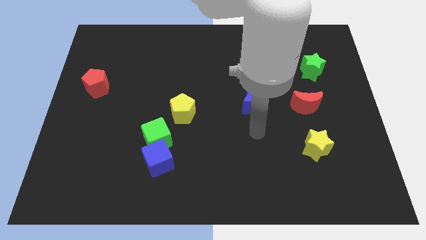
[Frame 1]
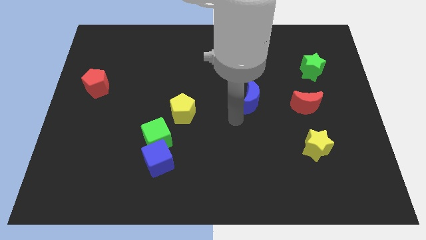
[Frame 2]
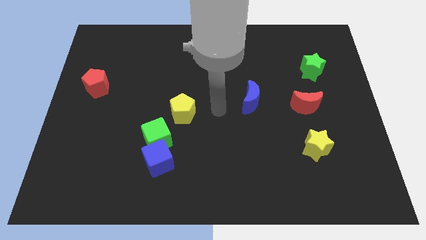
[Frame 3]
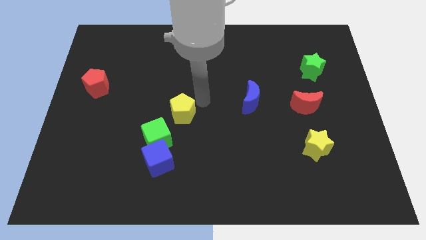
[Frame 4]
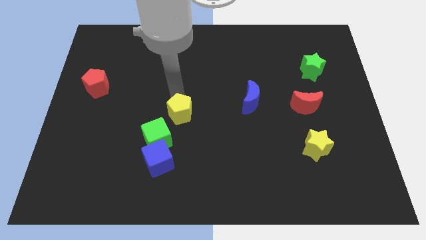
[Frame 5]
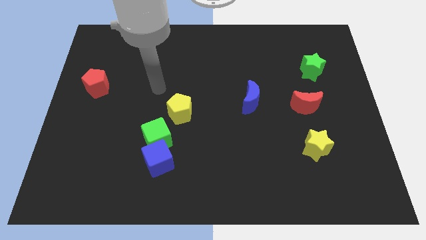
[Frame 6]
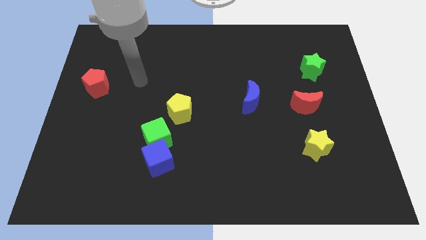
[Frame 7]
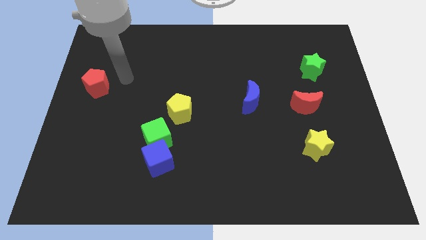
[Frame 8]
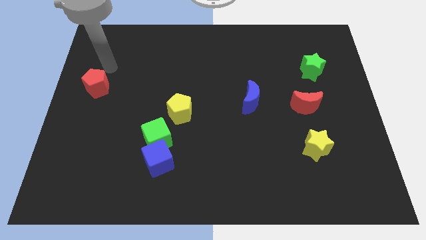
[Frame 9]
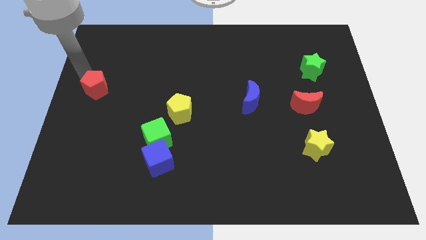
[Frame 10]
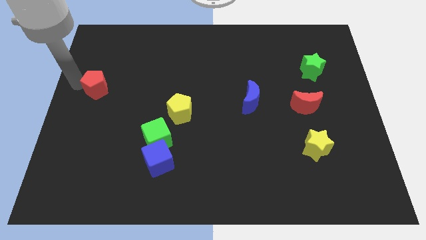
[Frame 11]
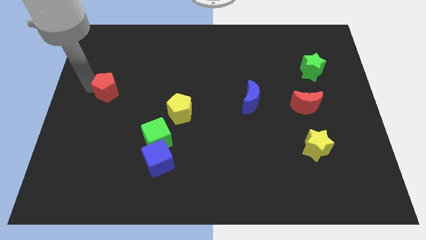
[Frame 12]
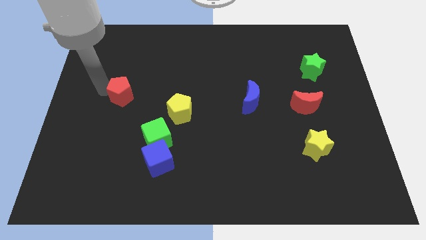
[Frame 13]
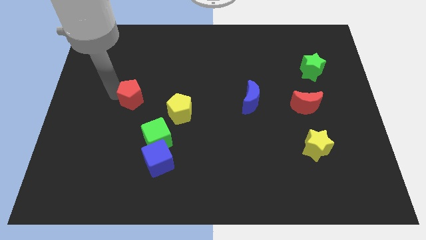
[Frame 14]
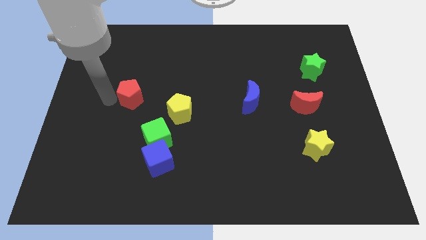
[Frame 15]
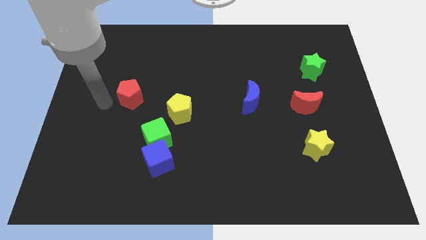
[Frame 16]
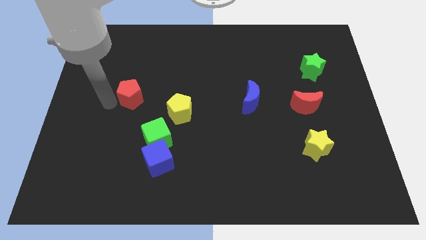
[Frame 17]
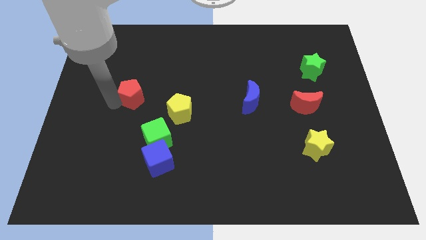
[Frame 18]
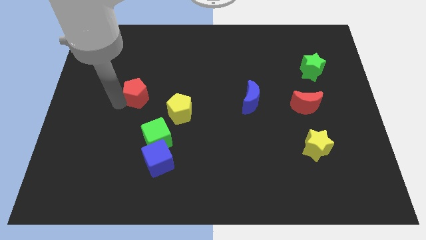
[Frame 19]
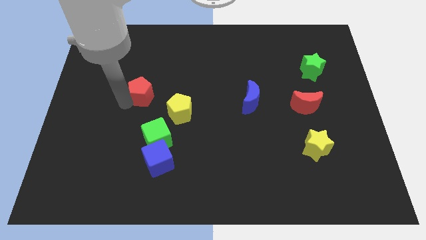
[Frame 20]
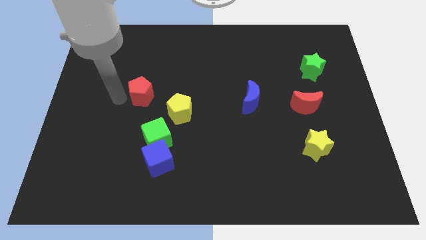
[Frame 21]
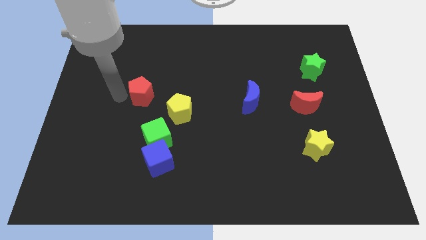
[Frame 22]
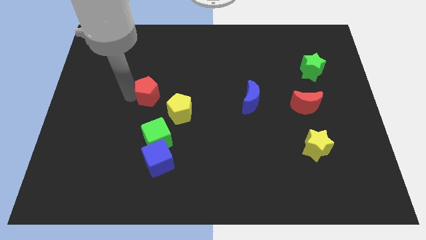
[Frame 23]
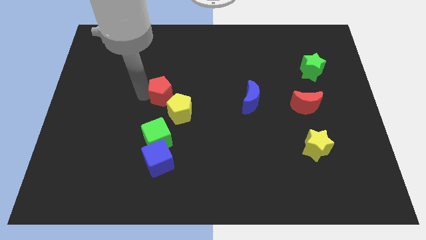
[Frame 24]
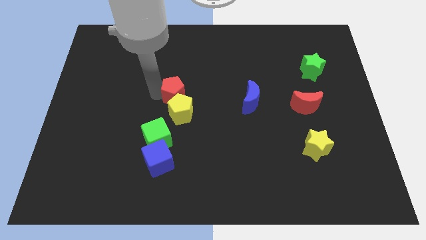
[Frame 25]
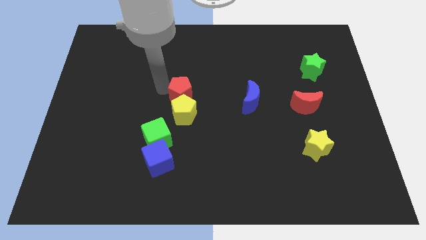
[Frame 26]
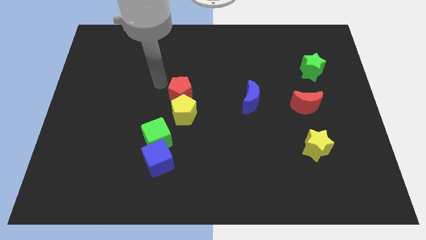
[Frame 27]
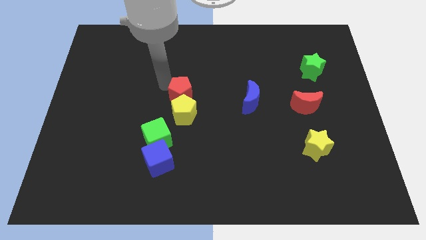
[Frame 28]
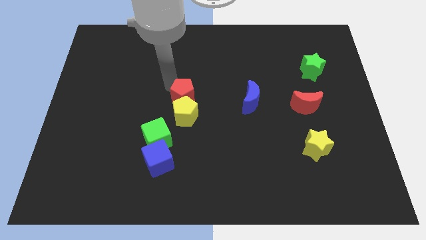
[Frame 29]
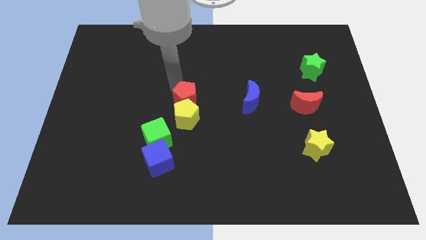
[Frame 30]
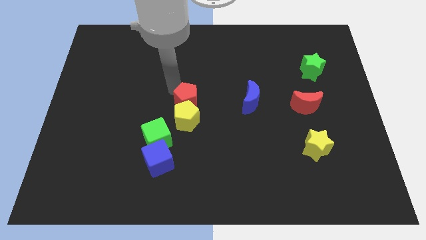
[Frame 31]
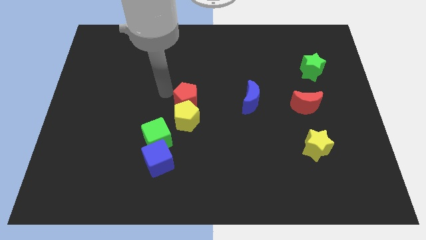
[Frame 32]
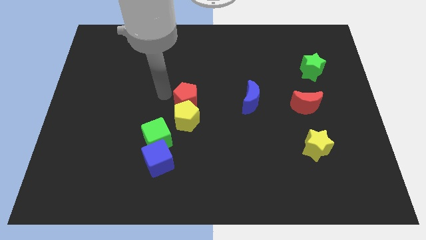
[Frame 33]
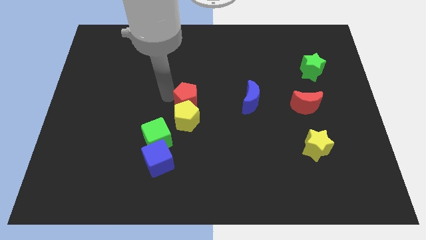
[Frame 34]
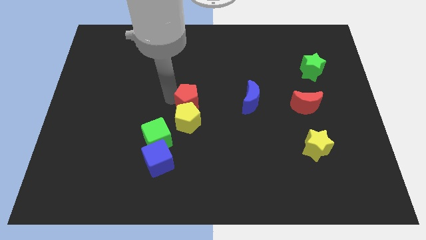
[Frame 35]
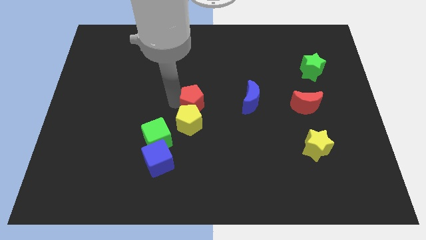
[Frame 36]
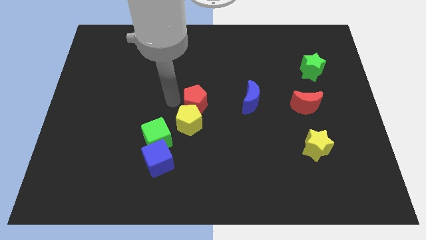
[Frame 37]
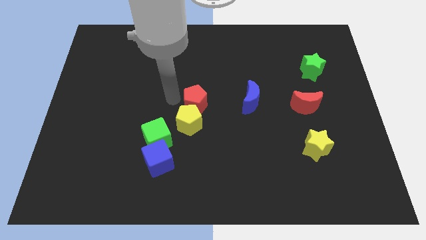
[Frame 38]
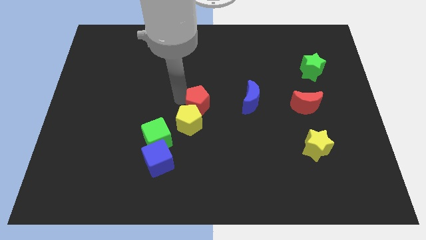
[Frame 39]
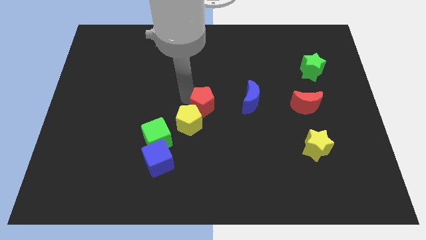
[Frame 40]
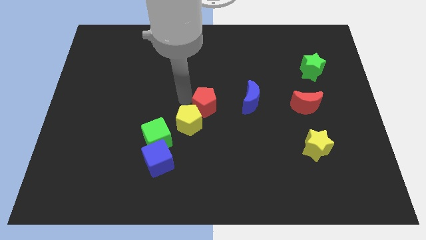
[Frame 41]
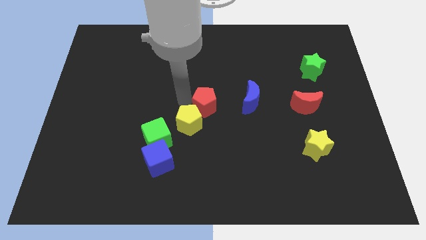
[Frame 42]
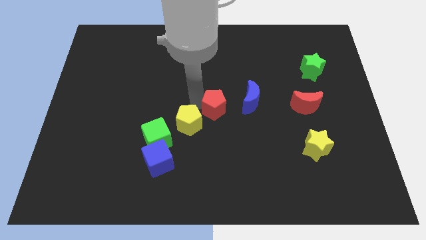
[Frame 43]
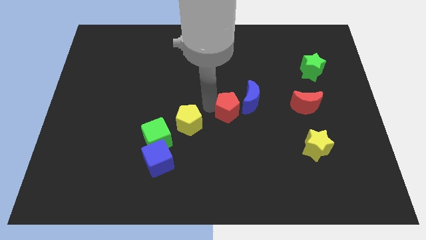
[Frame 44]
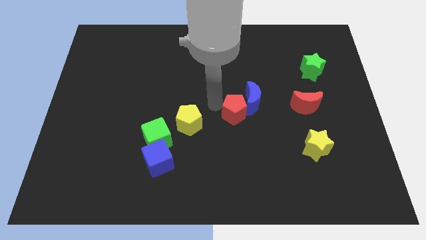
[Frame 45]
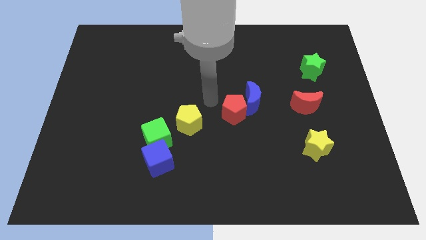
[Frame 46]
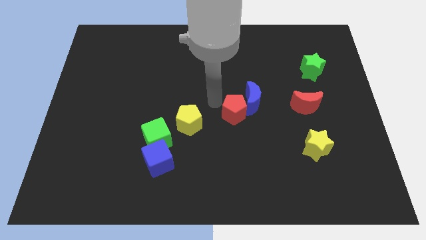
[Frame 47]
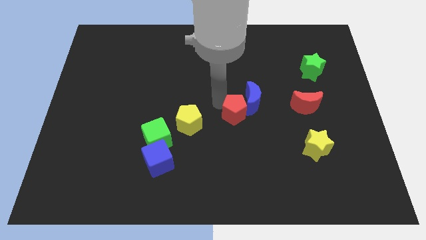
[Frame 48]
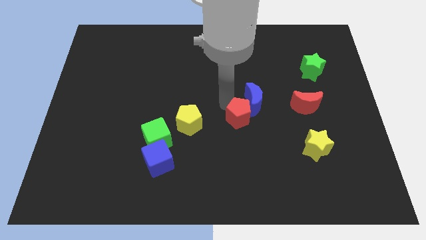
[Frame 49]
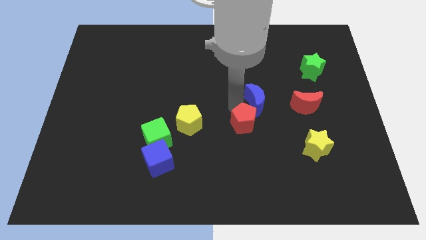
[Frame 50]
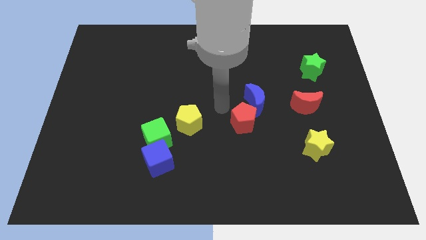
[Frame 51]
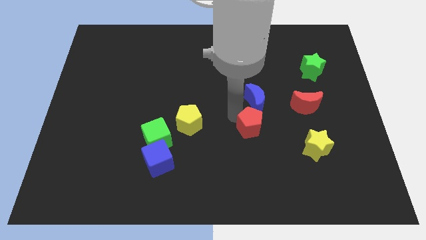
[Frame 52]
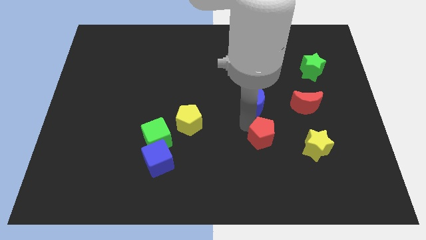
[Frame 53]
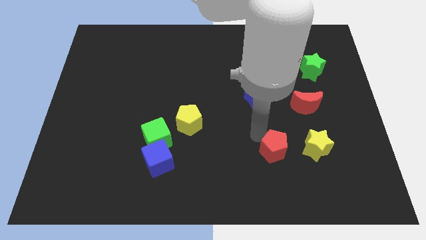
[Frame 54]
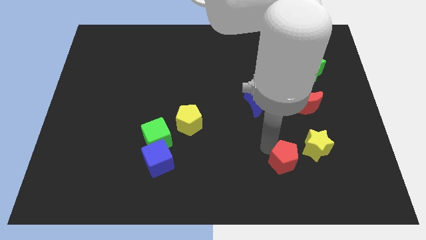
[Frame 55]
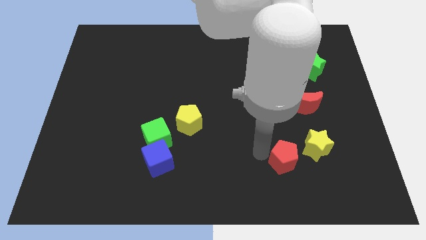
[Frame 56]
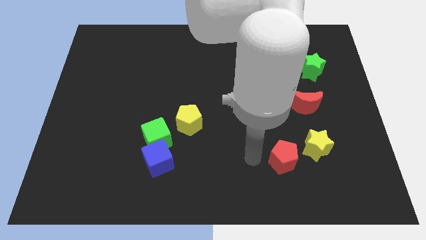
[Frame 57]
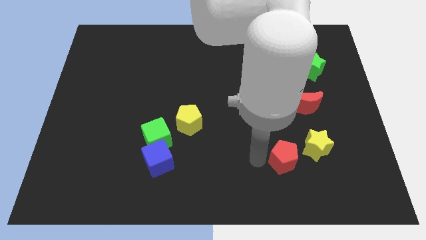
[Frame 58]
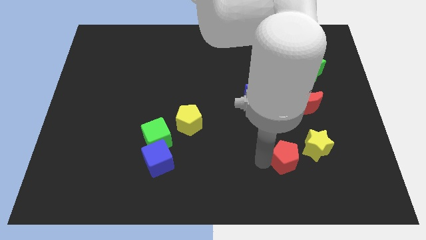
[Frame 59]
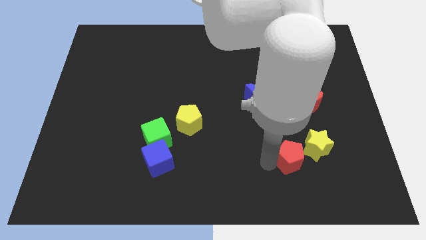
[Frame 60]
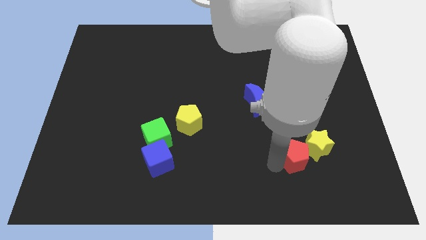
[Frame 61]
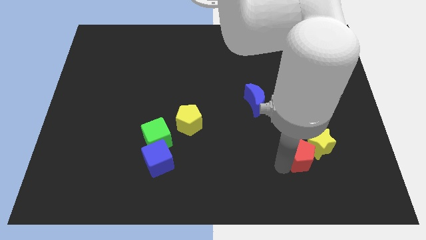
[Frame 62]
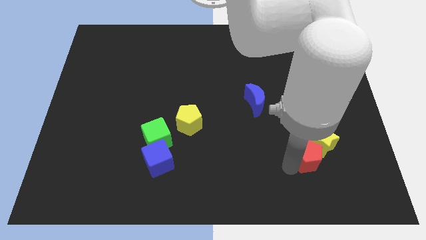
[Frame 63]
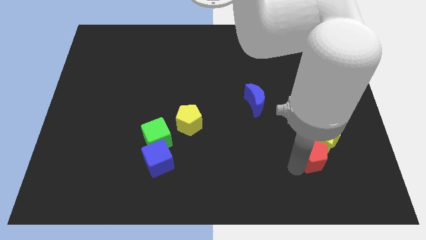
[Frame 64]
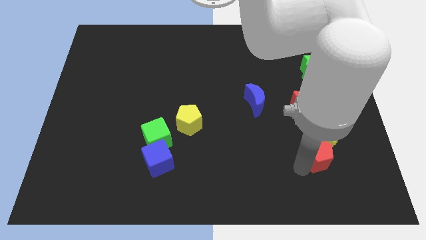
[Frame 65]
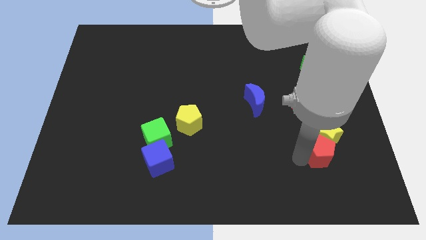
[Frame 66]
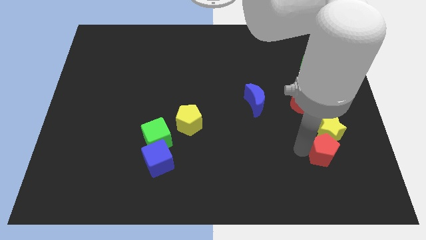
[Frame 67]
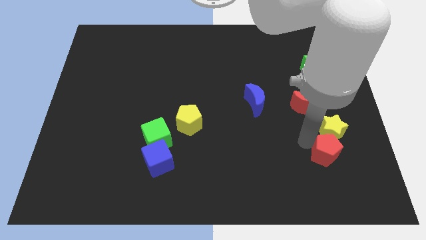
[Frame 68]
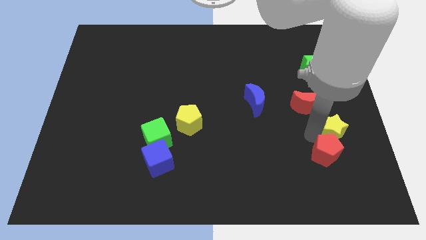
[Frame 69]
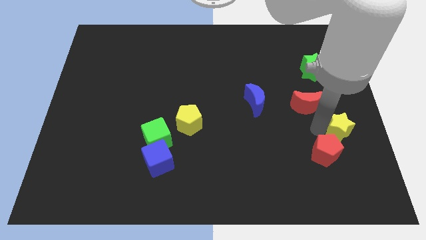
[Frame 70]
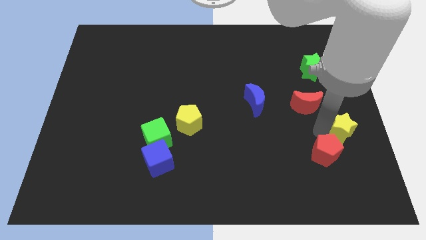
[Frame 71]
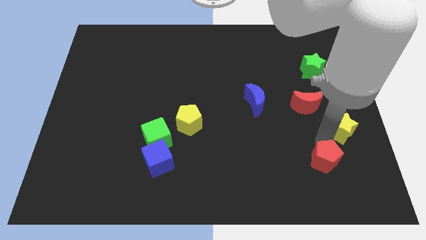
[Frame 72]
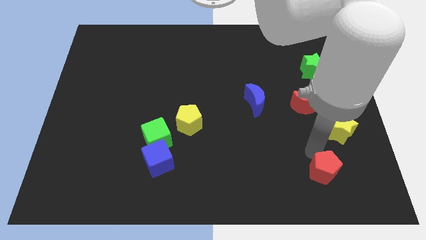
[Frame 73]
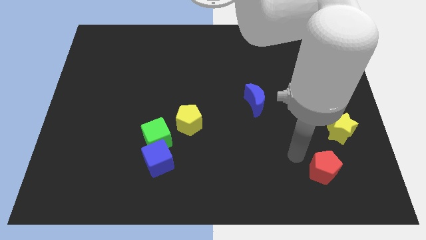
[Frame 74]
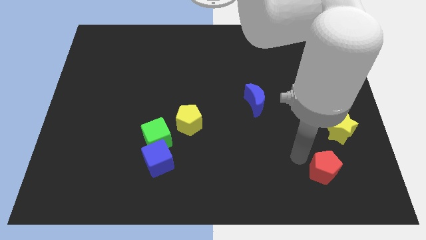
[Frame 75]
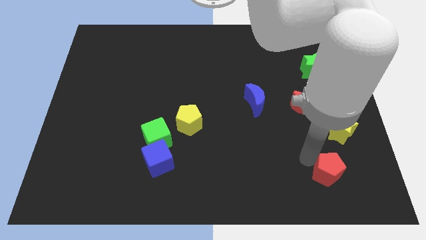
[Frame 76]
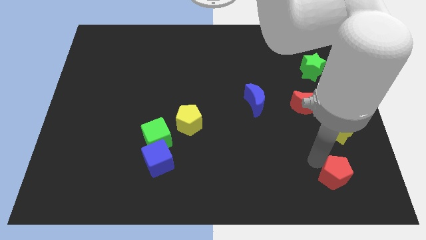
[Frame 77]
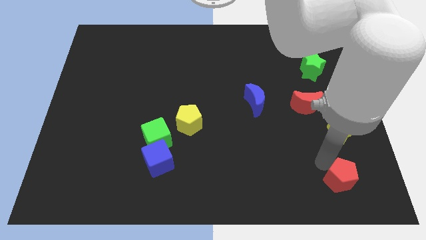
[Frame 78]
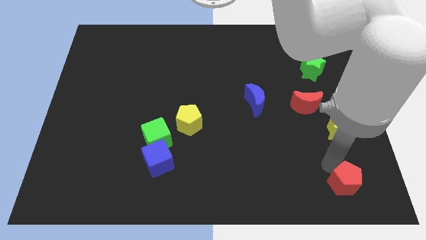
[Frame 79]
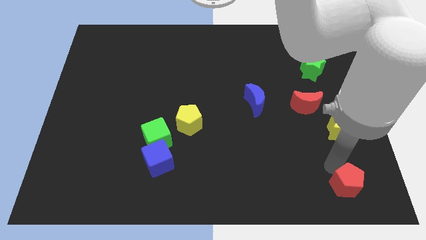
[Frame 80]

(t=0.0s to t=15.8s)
move the red pentagon to the bottom right

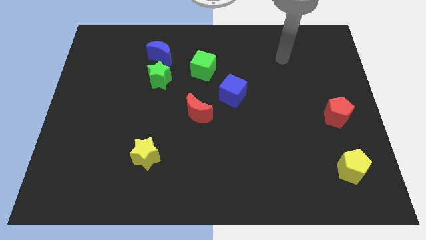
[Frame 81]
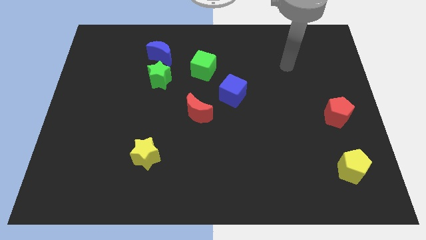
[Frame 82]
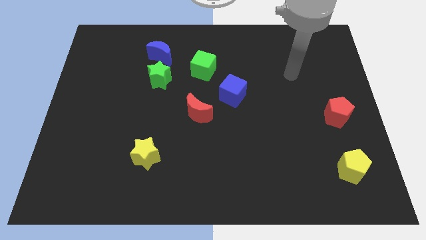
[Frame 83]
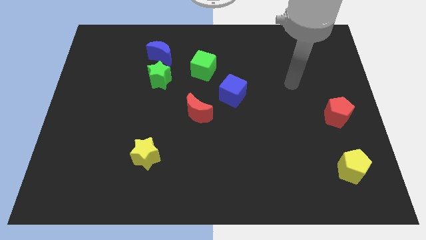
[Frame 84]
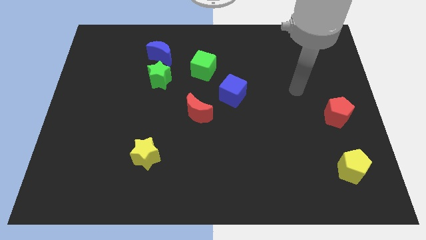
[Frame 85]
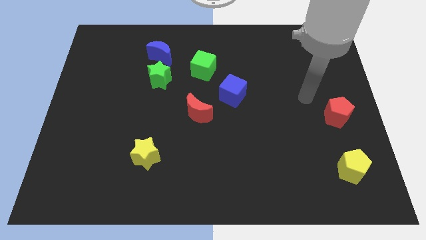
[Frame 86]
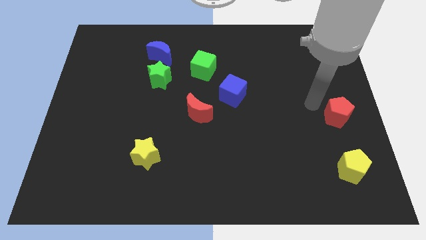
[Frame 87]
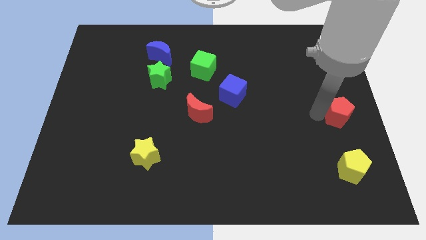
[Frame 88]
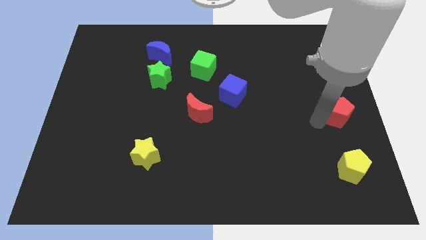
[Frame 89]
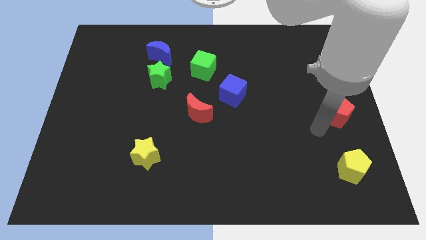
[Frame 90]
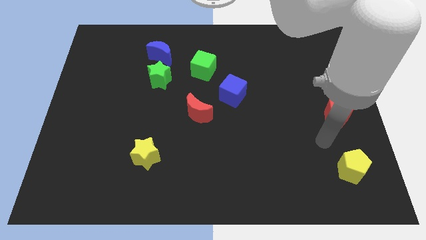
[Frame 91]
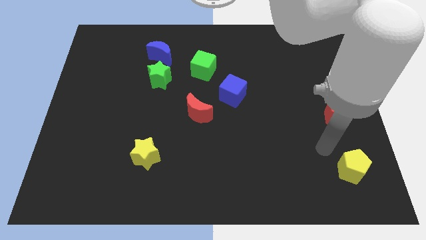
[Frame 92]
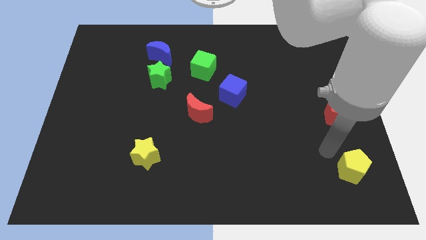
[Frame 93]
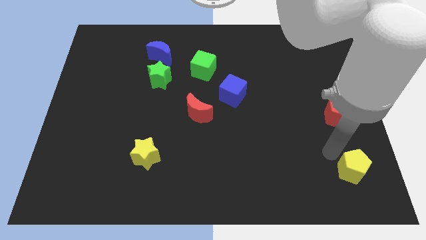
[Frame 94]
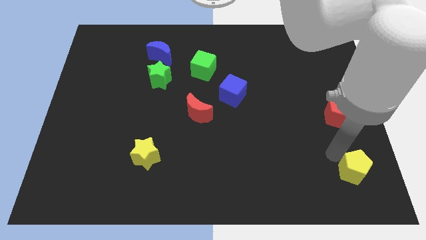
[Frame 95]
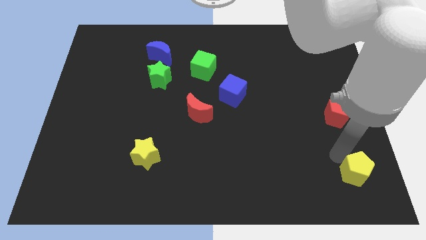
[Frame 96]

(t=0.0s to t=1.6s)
move the yellow pentagon to the bottom right of the board
